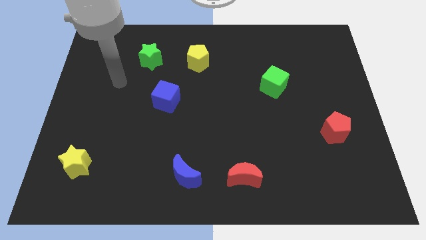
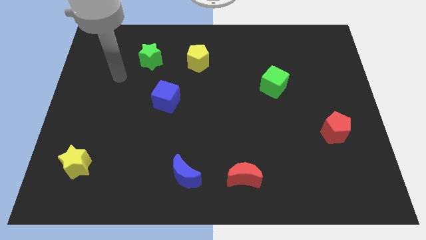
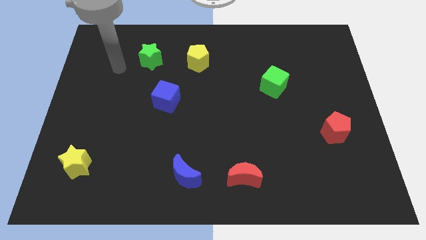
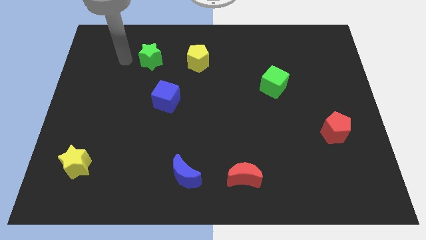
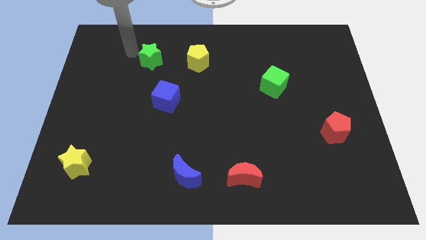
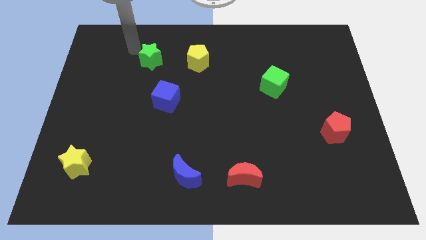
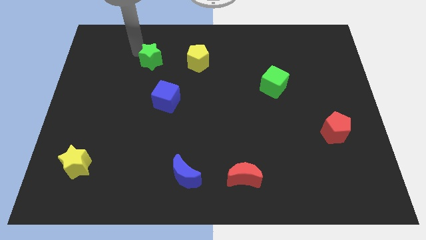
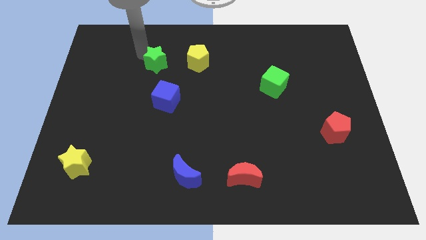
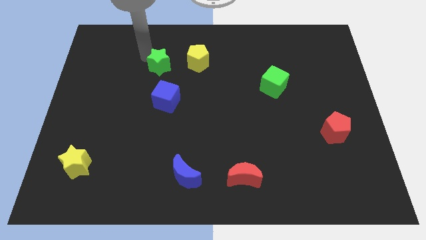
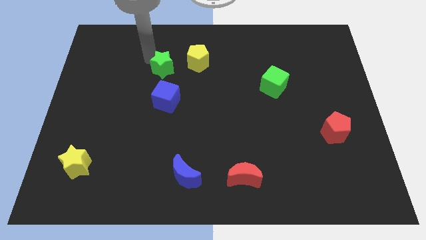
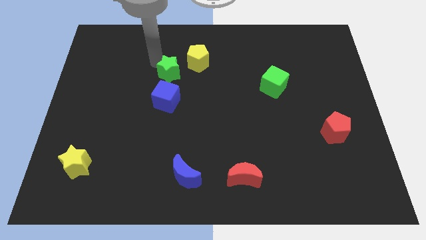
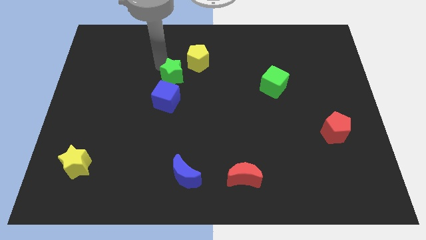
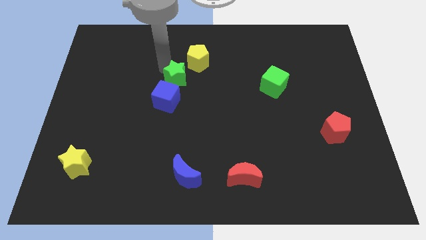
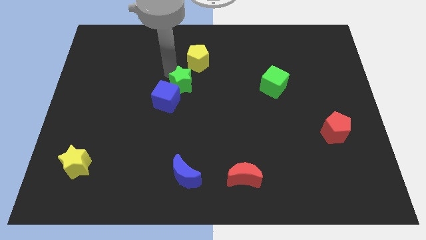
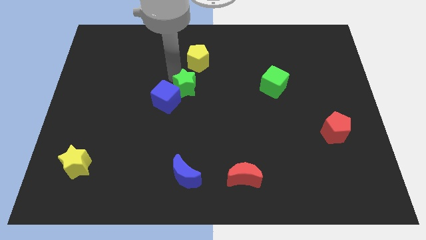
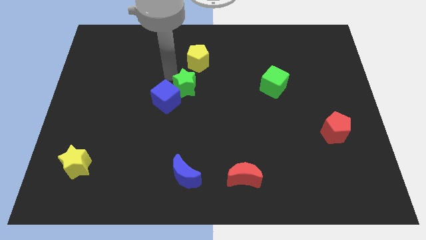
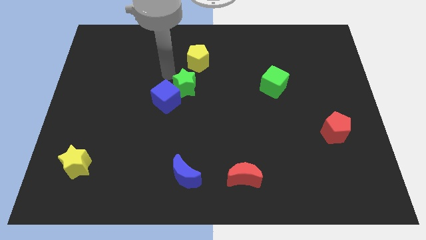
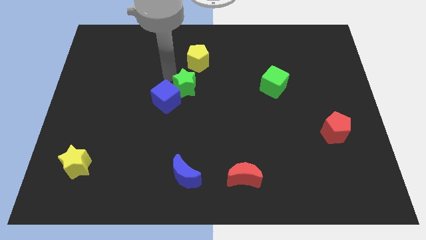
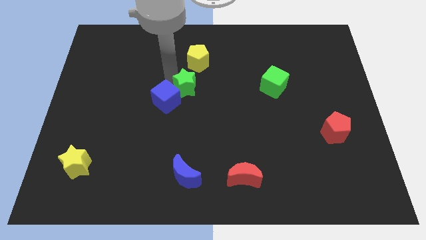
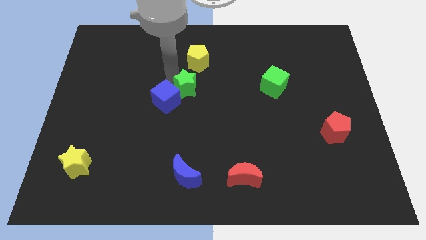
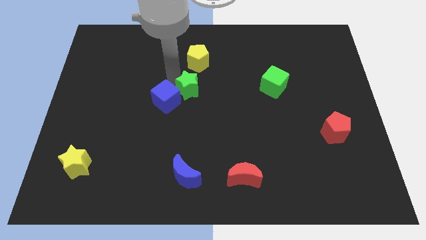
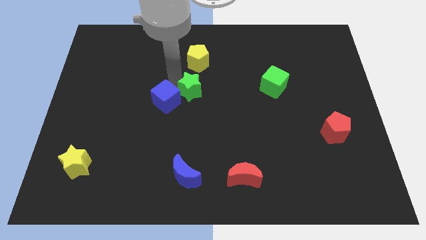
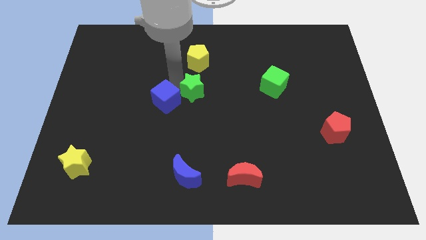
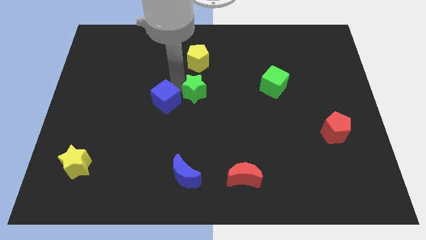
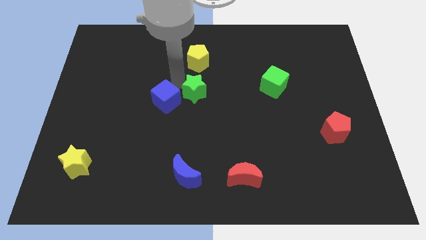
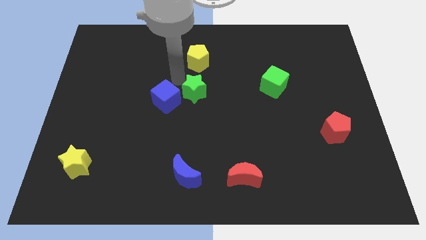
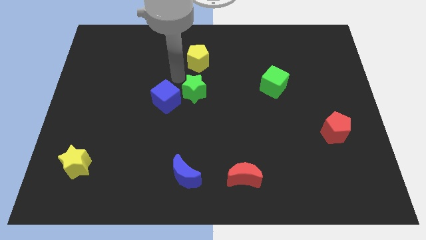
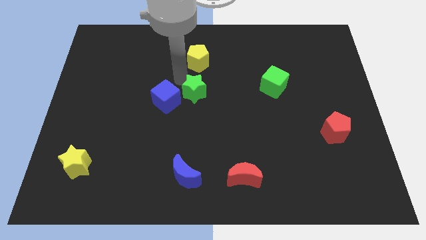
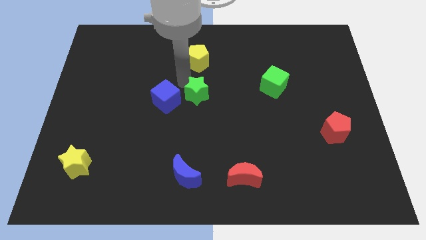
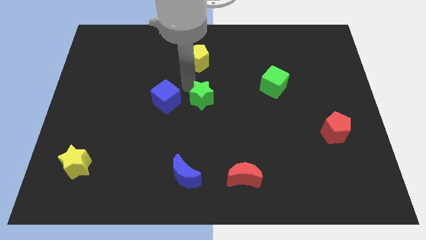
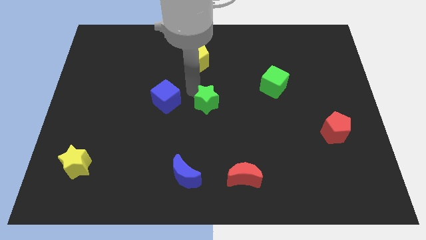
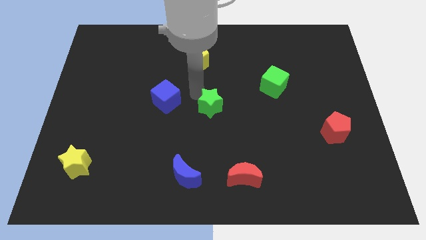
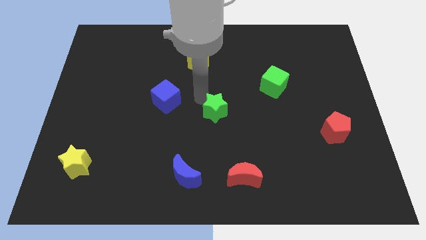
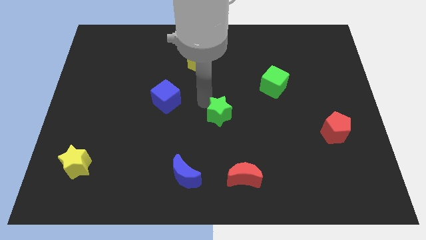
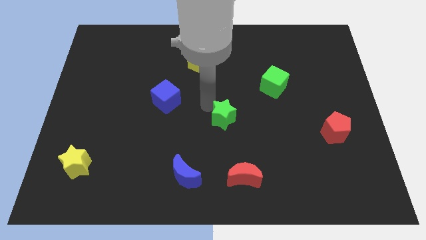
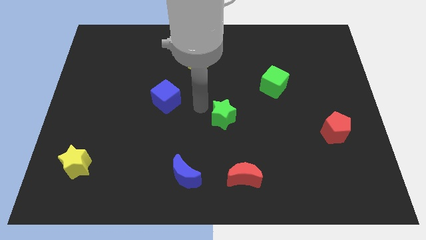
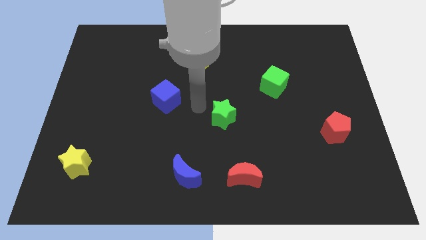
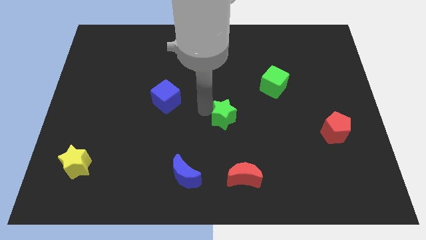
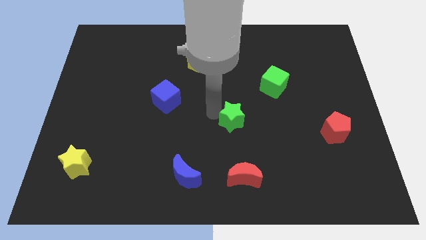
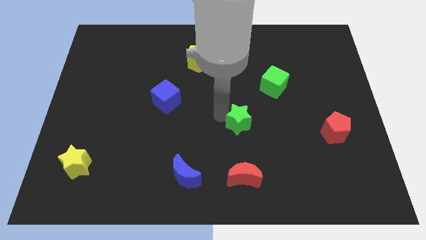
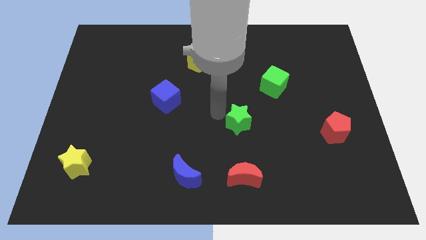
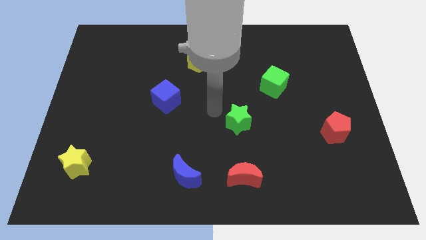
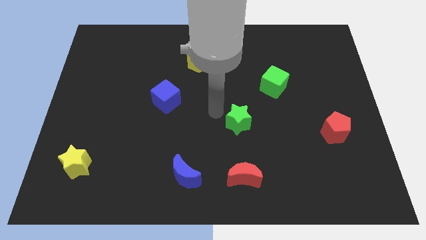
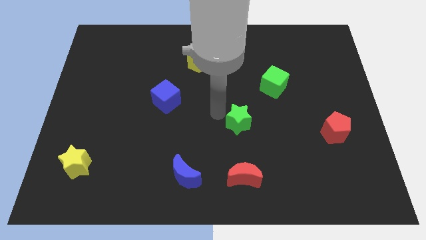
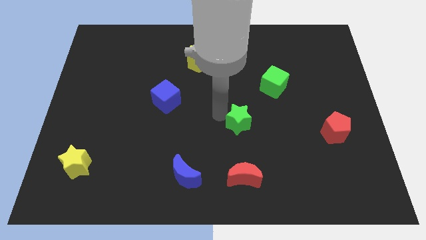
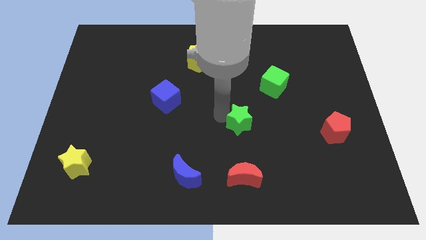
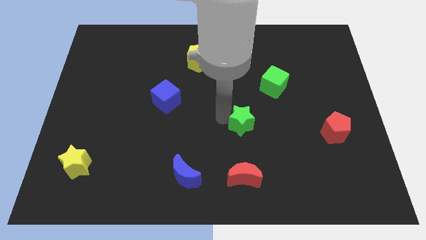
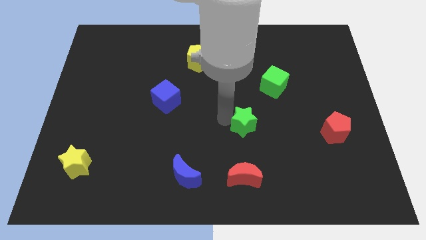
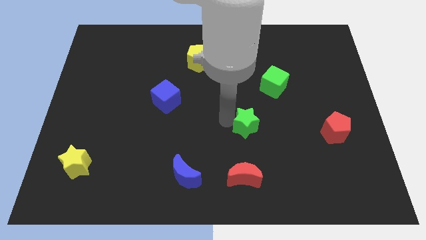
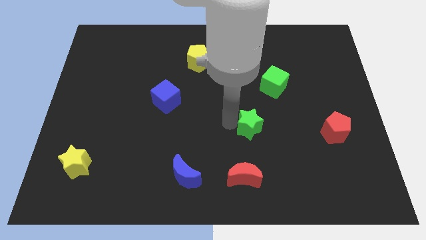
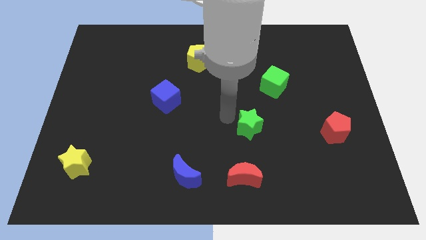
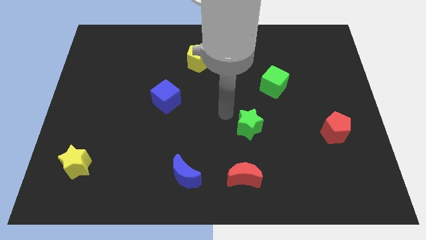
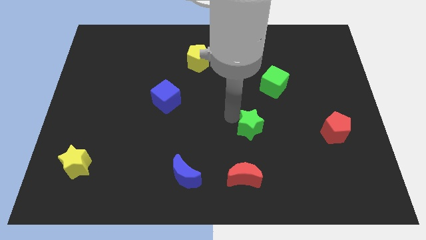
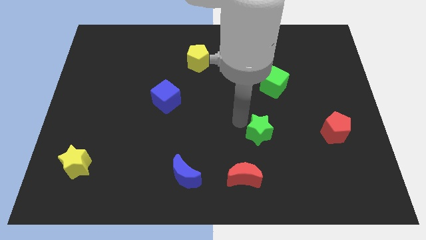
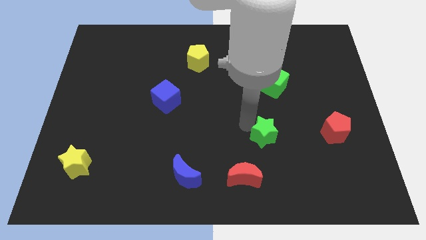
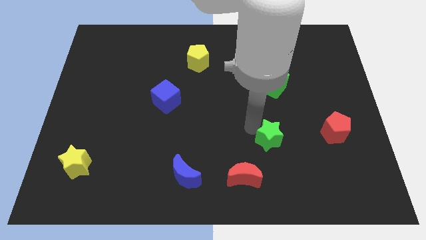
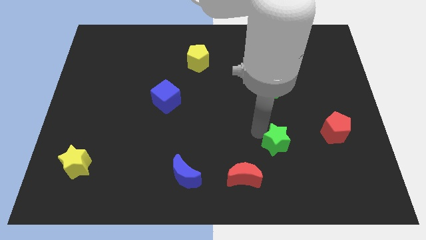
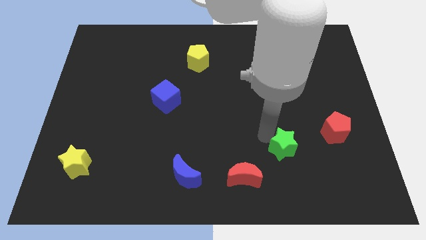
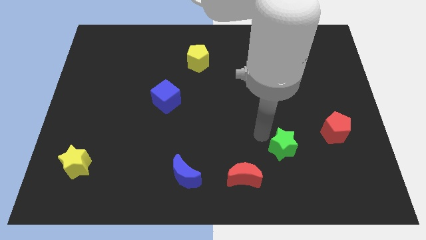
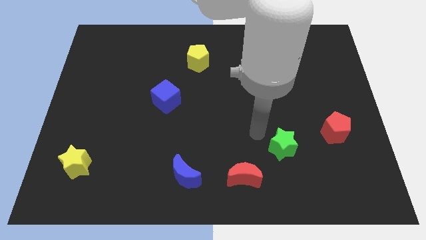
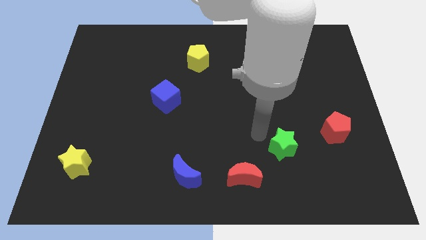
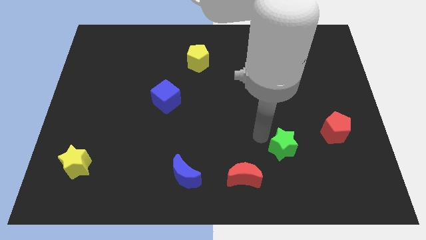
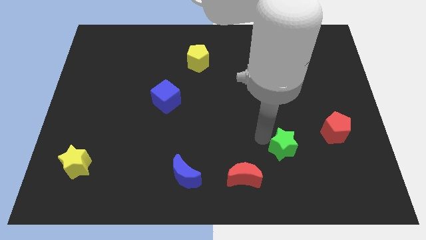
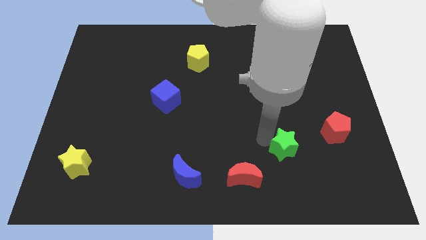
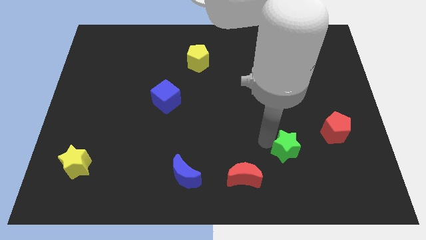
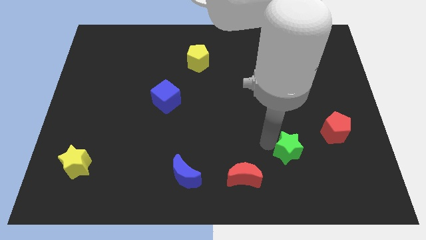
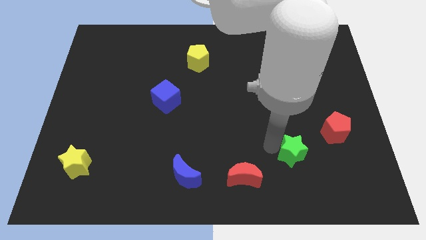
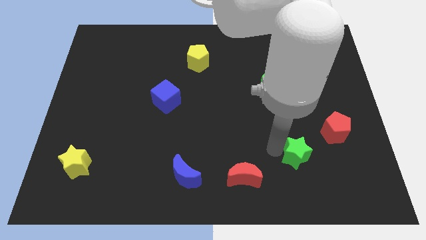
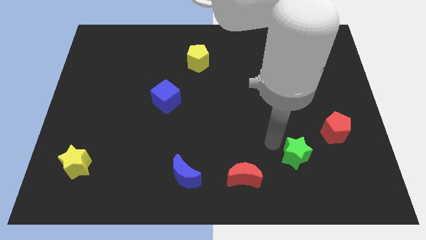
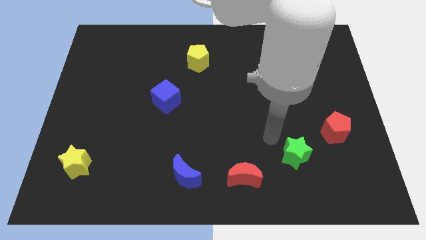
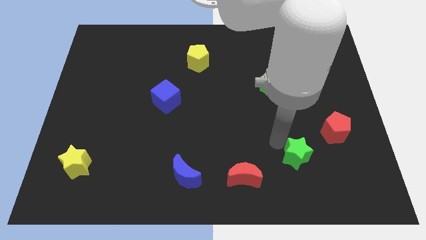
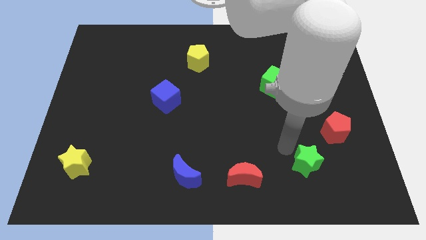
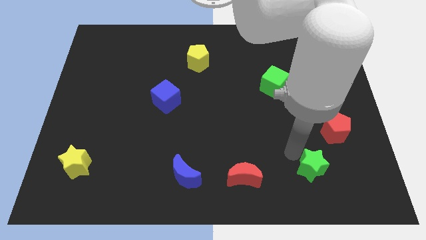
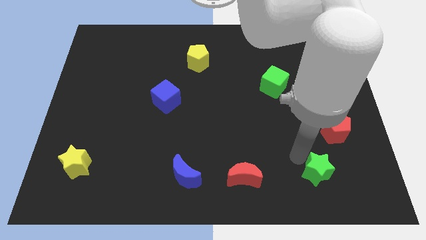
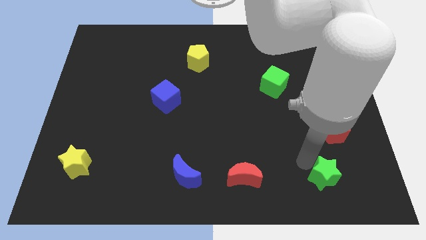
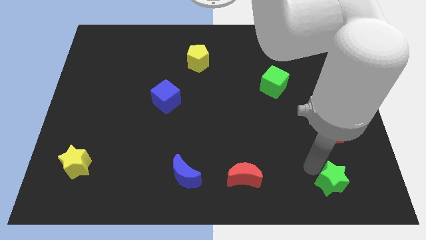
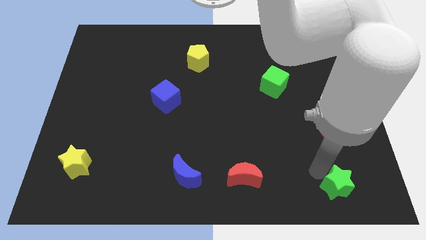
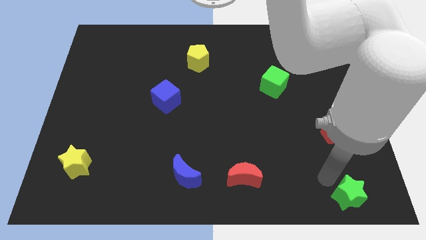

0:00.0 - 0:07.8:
push the green star to the bottom right of the board
